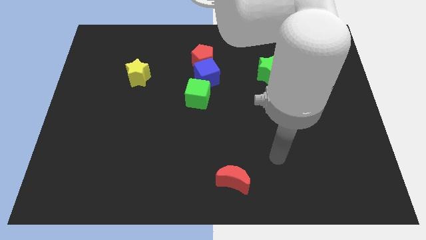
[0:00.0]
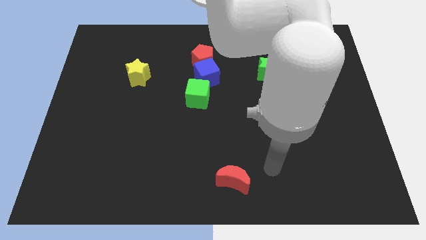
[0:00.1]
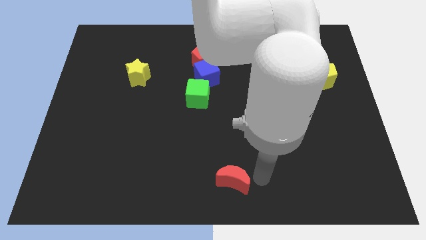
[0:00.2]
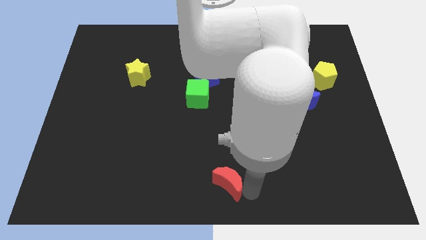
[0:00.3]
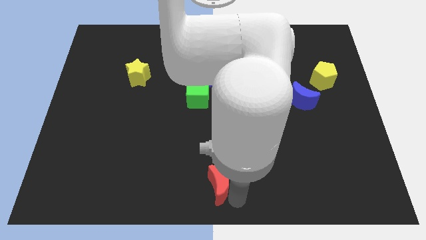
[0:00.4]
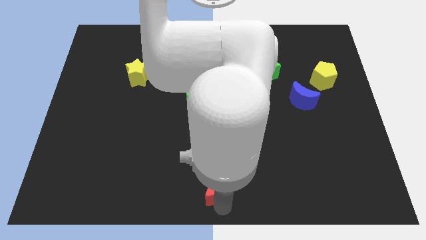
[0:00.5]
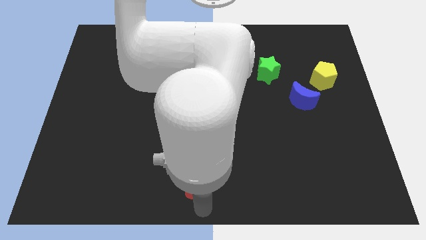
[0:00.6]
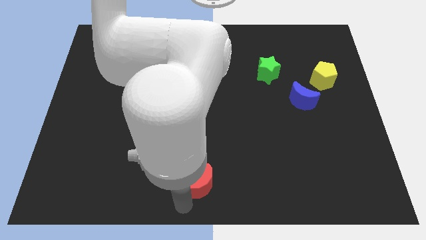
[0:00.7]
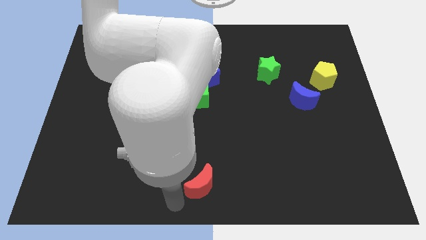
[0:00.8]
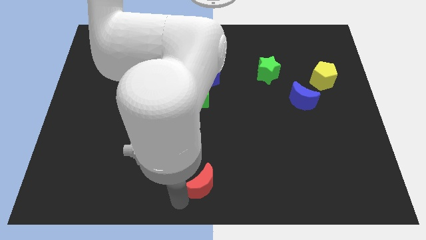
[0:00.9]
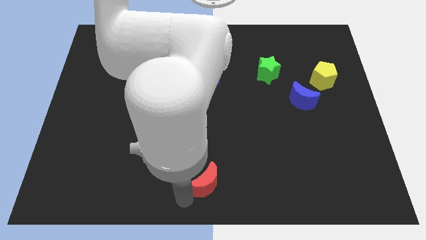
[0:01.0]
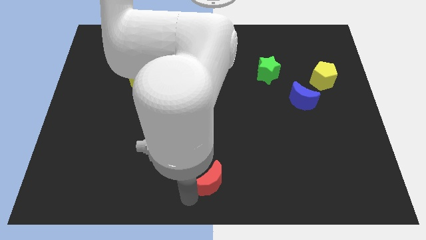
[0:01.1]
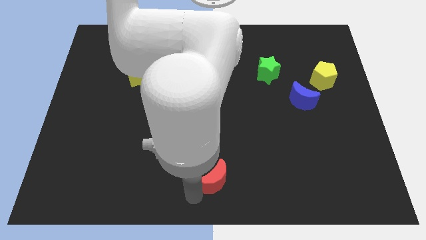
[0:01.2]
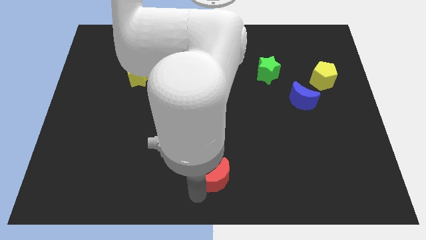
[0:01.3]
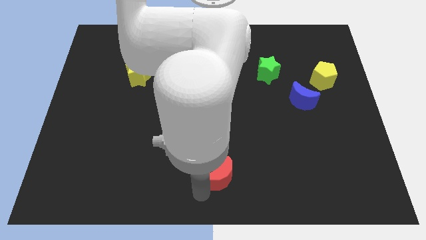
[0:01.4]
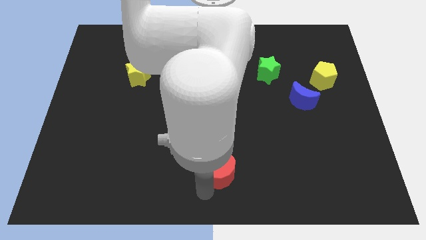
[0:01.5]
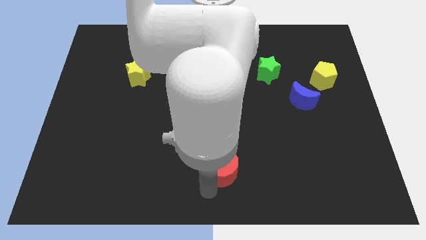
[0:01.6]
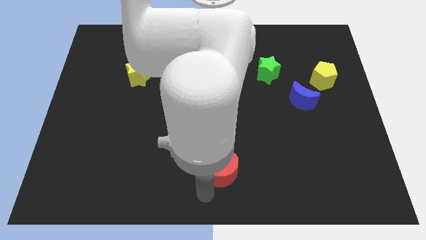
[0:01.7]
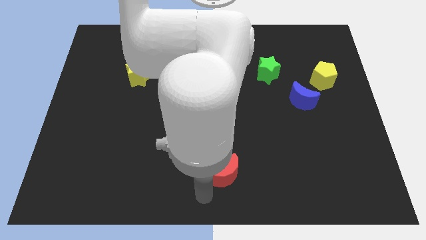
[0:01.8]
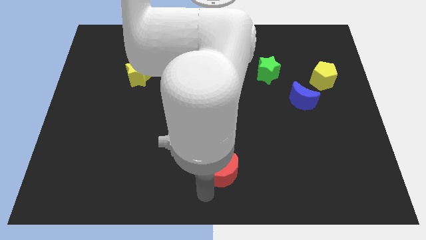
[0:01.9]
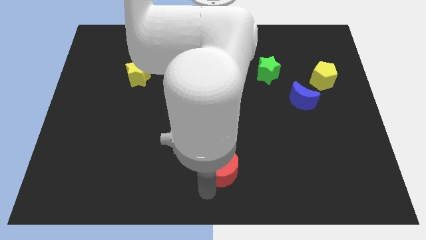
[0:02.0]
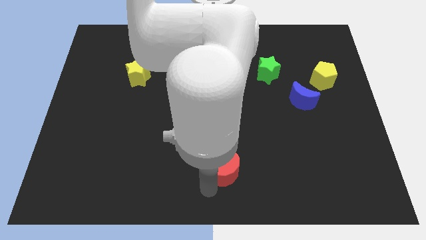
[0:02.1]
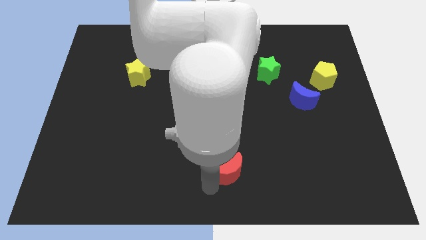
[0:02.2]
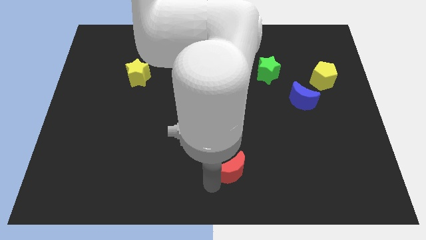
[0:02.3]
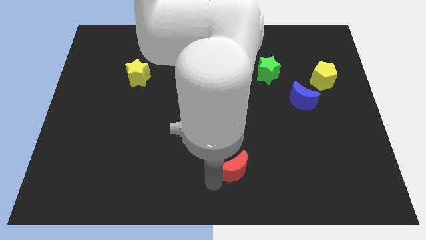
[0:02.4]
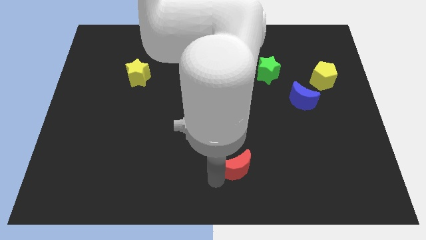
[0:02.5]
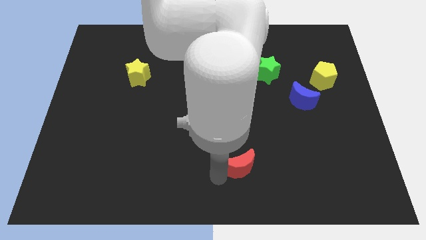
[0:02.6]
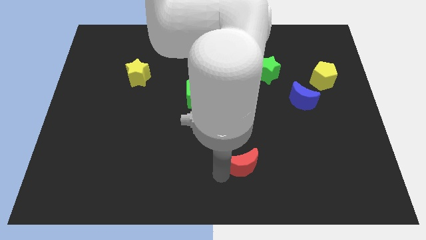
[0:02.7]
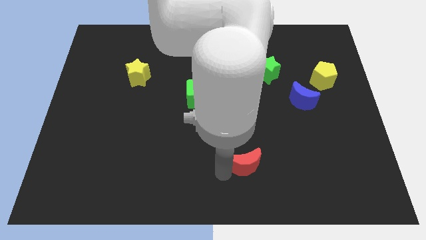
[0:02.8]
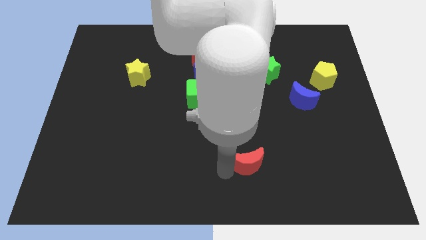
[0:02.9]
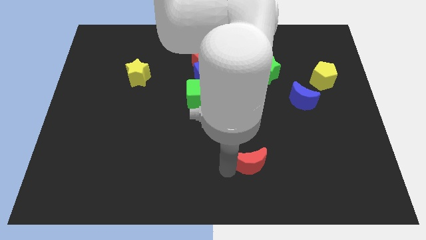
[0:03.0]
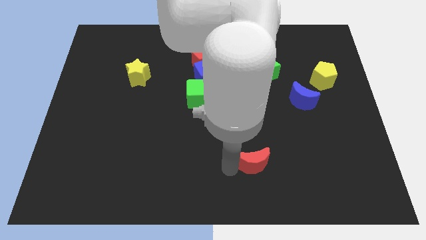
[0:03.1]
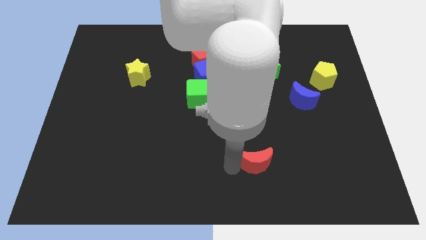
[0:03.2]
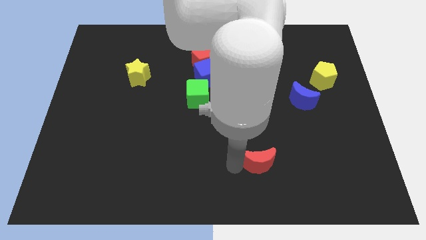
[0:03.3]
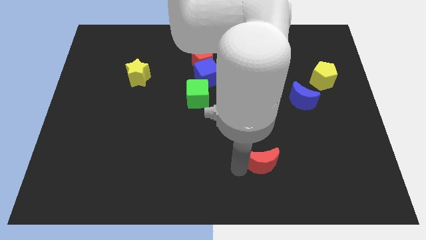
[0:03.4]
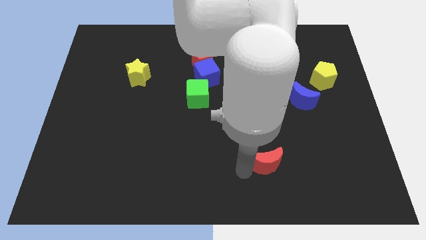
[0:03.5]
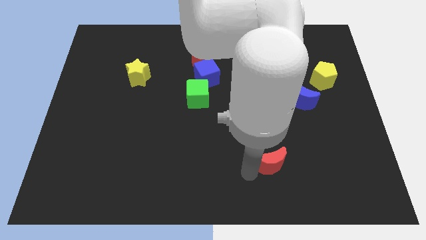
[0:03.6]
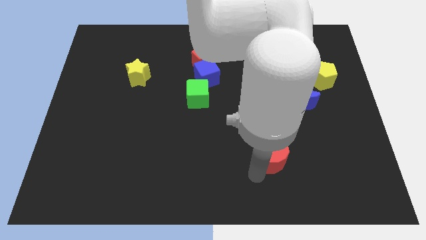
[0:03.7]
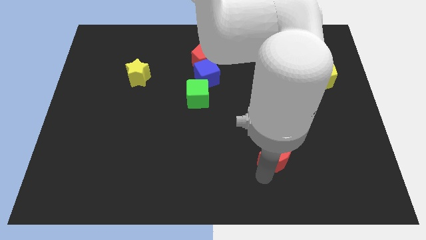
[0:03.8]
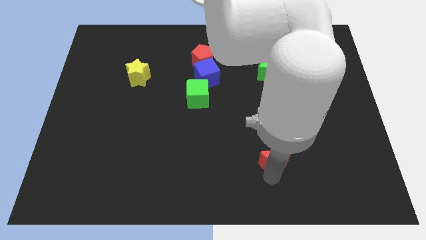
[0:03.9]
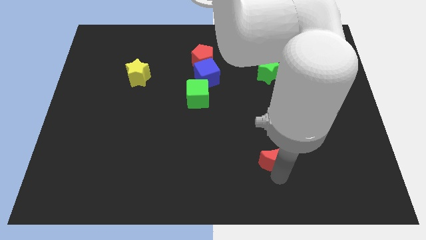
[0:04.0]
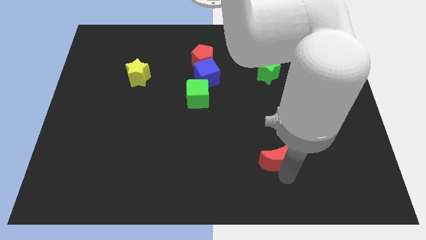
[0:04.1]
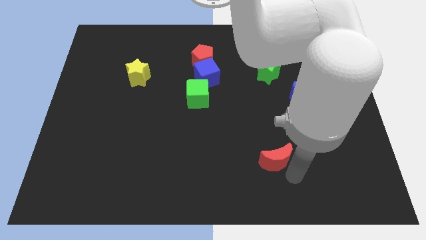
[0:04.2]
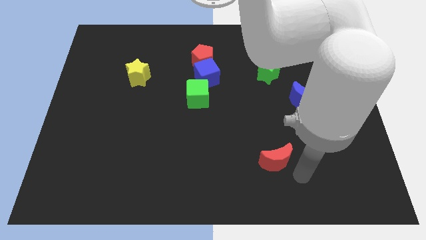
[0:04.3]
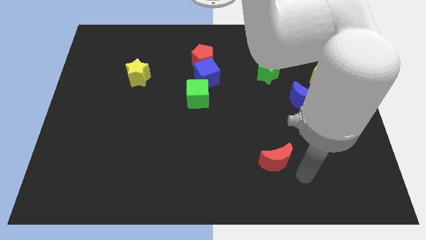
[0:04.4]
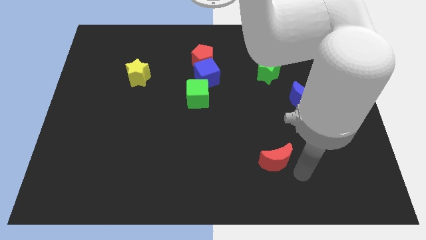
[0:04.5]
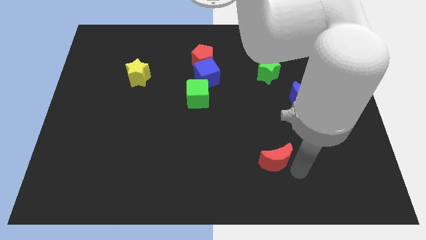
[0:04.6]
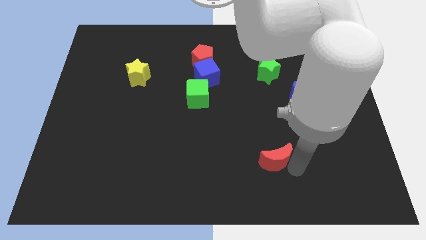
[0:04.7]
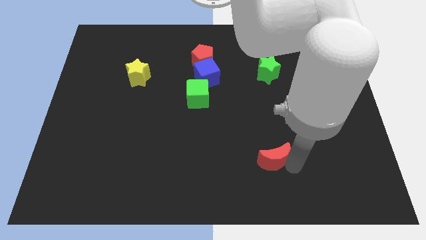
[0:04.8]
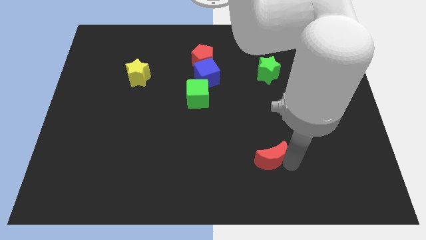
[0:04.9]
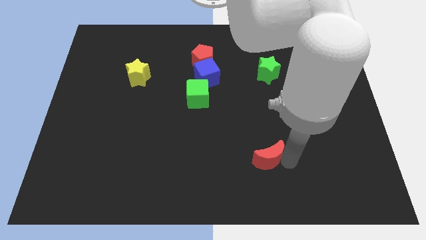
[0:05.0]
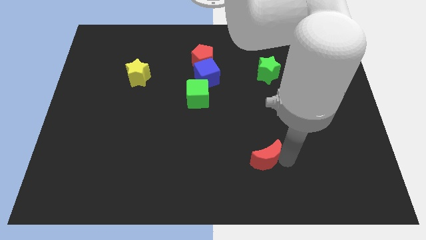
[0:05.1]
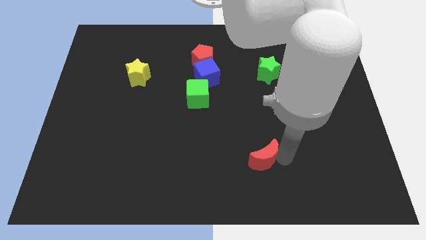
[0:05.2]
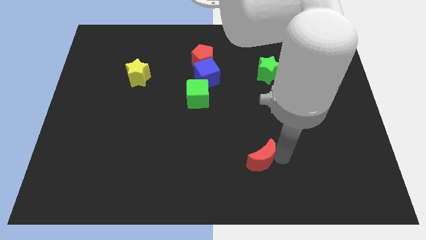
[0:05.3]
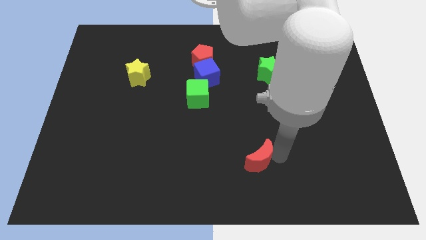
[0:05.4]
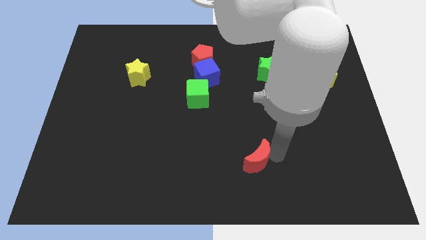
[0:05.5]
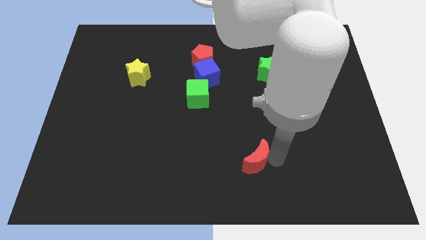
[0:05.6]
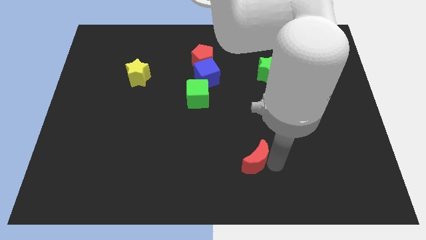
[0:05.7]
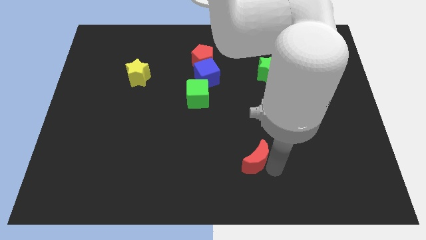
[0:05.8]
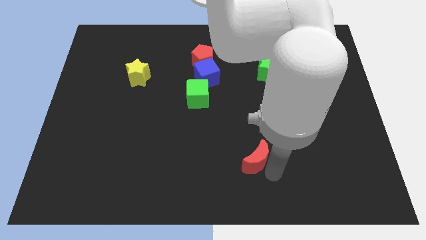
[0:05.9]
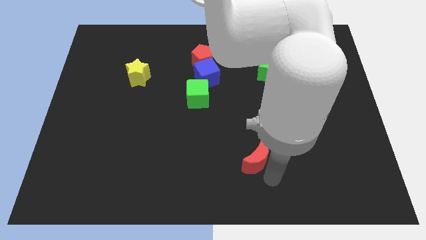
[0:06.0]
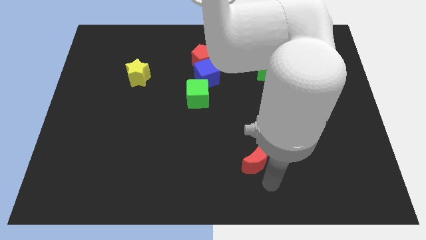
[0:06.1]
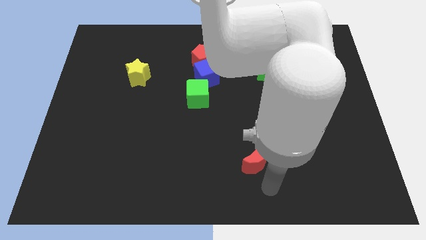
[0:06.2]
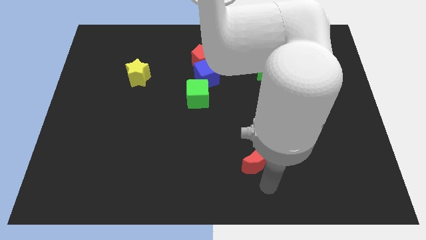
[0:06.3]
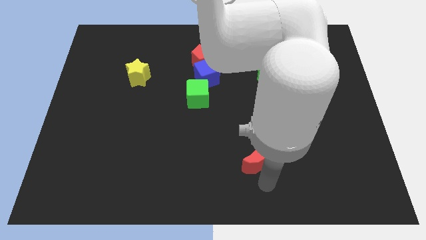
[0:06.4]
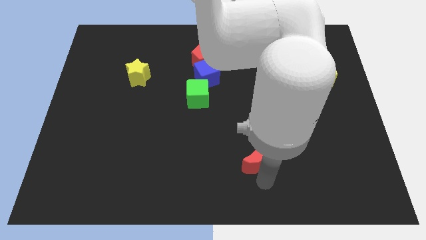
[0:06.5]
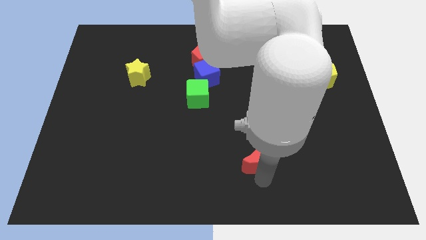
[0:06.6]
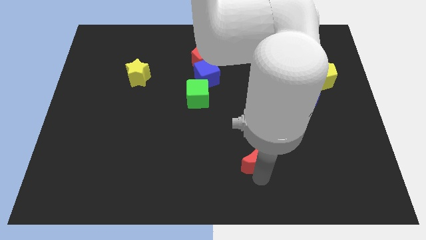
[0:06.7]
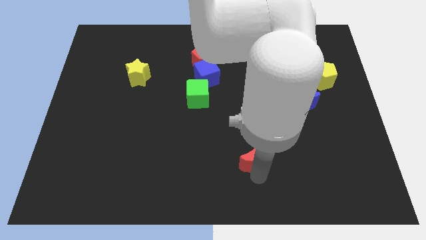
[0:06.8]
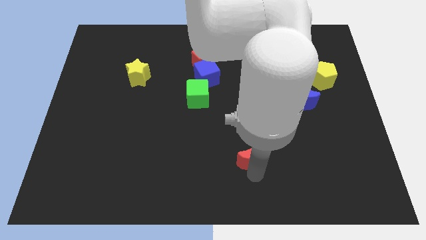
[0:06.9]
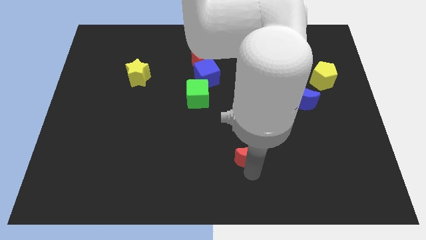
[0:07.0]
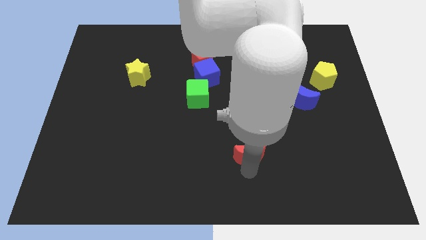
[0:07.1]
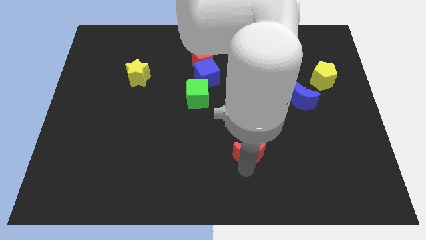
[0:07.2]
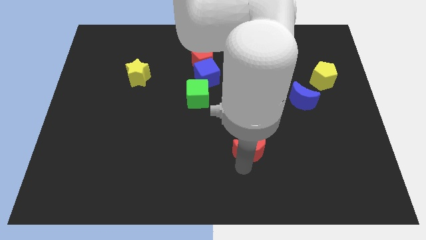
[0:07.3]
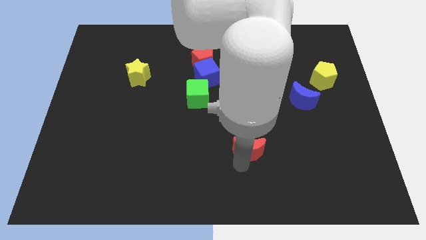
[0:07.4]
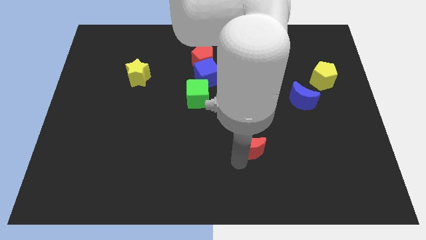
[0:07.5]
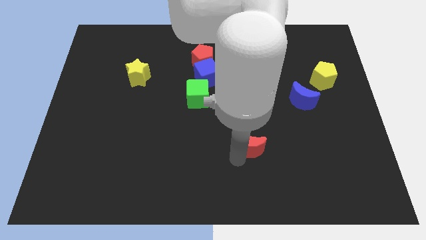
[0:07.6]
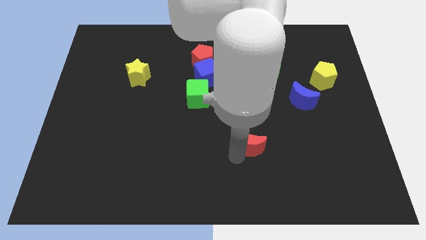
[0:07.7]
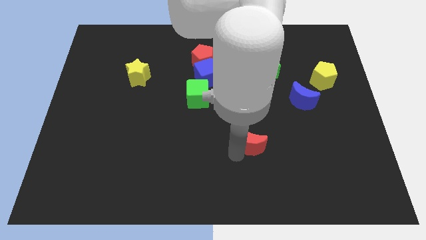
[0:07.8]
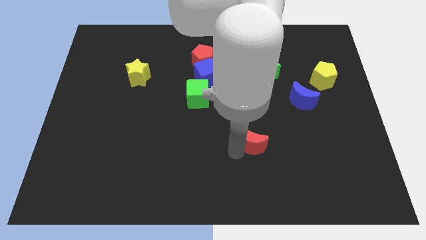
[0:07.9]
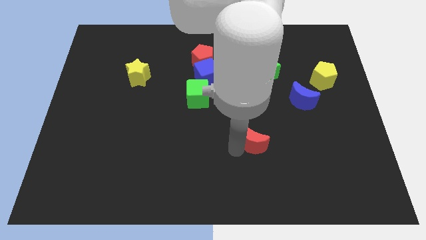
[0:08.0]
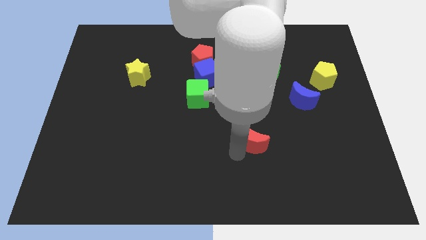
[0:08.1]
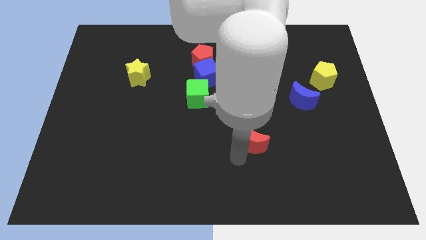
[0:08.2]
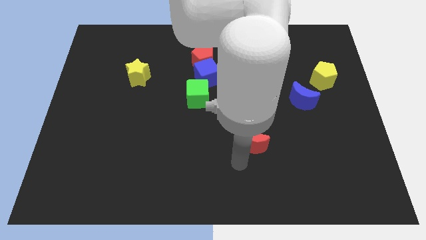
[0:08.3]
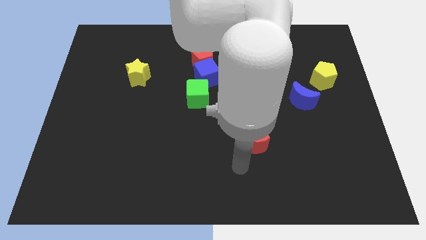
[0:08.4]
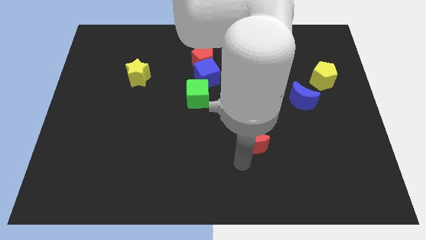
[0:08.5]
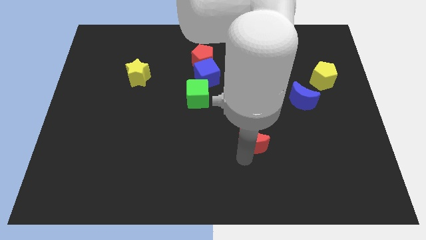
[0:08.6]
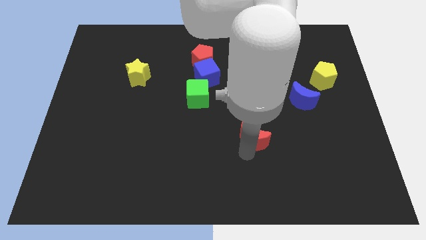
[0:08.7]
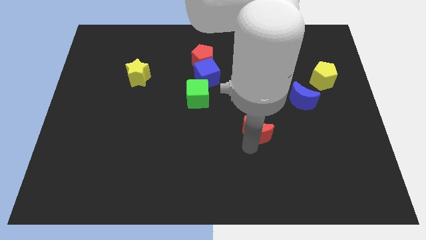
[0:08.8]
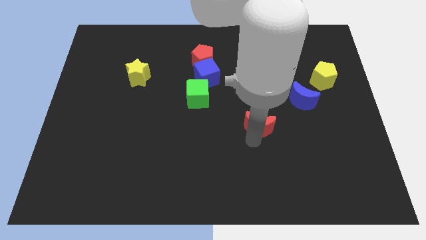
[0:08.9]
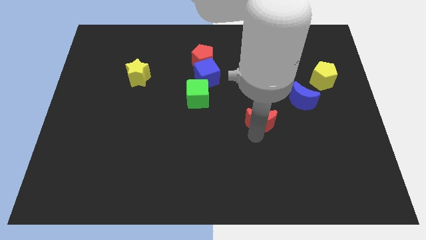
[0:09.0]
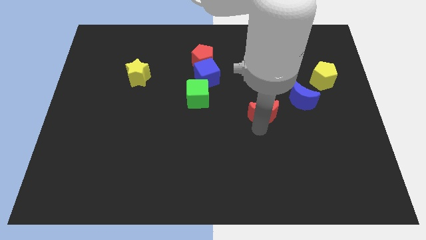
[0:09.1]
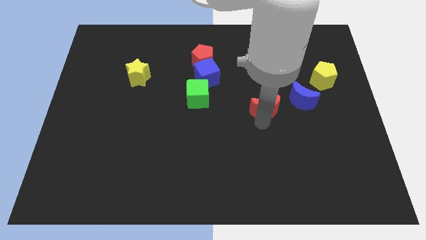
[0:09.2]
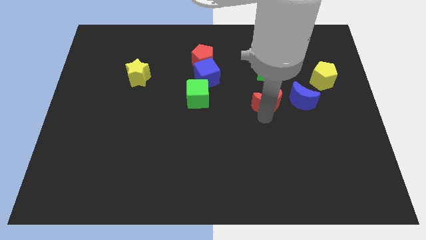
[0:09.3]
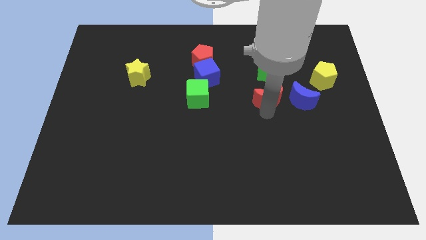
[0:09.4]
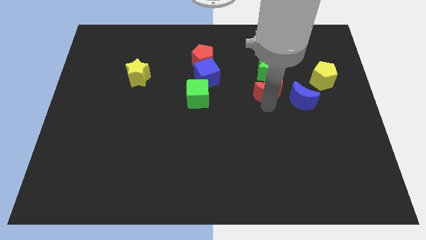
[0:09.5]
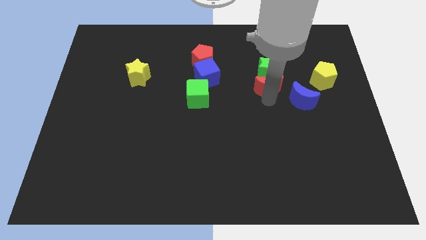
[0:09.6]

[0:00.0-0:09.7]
move the red moon close to the green star
